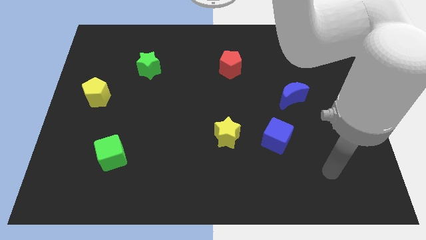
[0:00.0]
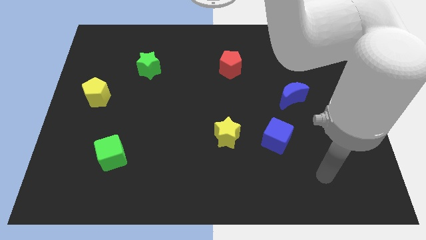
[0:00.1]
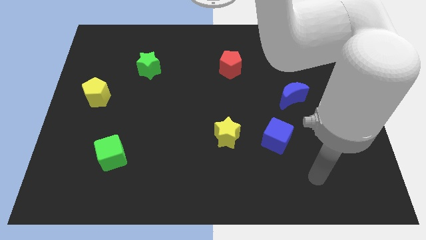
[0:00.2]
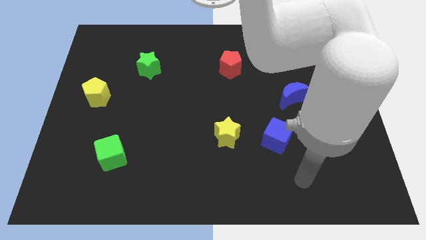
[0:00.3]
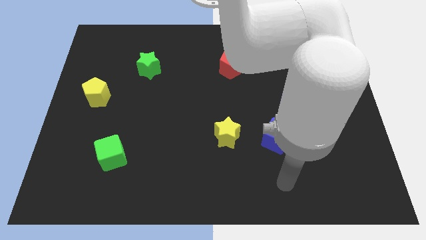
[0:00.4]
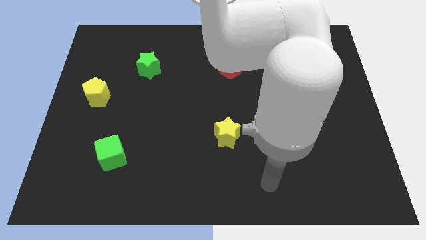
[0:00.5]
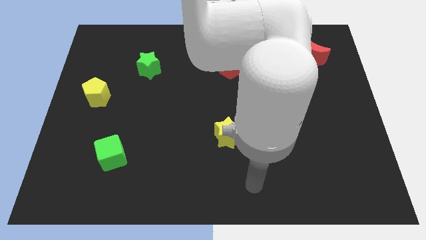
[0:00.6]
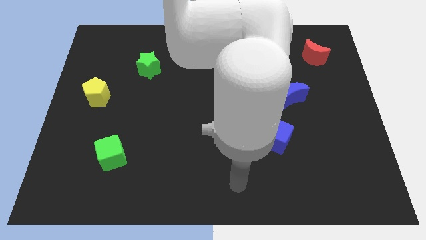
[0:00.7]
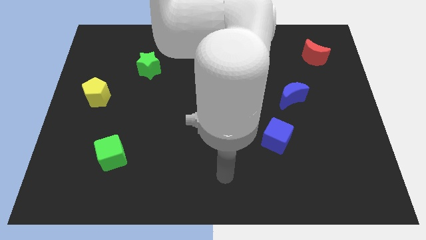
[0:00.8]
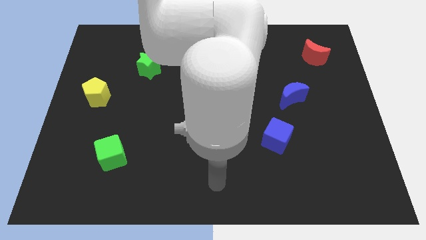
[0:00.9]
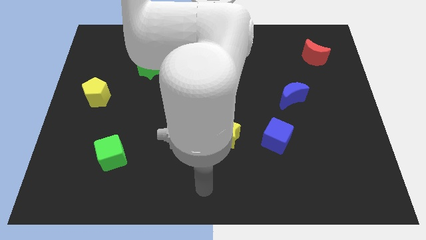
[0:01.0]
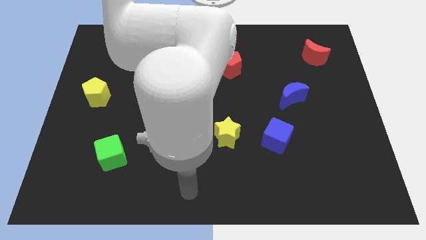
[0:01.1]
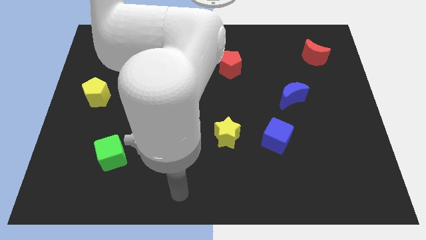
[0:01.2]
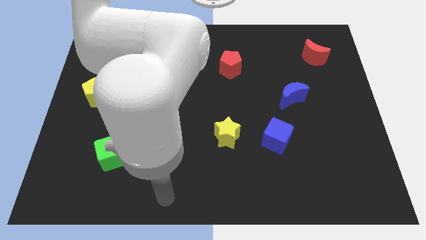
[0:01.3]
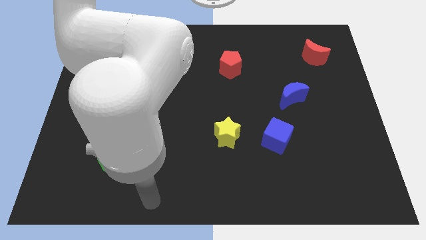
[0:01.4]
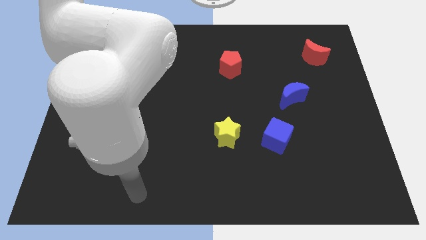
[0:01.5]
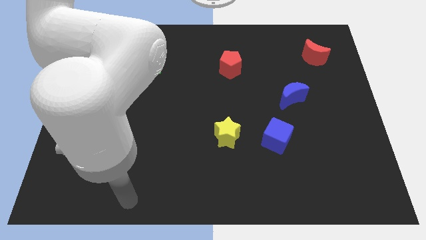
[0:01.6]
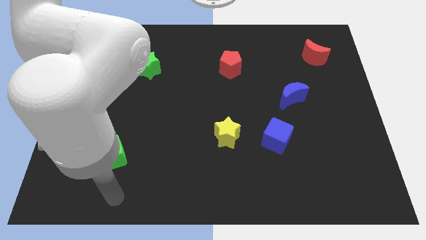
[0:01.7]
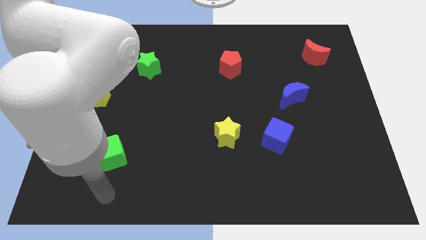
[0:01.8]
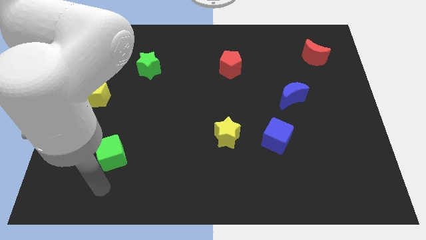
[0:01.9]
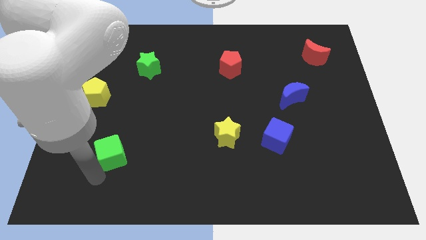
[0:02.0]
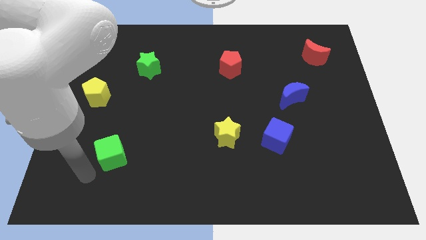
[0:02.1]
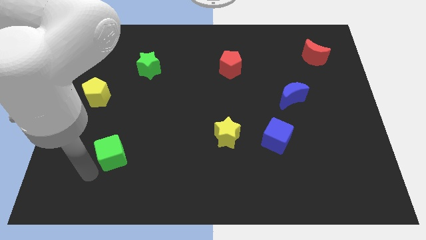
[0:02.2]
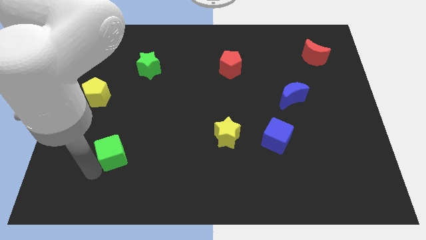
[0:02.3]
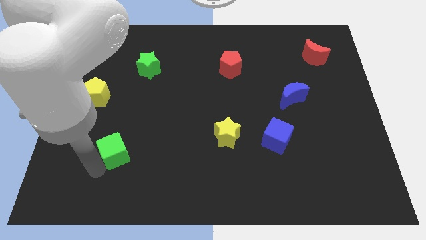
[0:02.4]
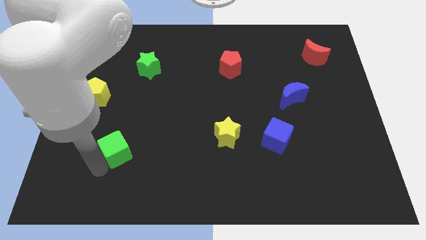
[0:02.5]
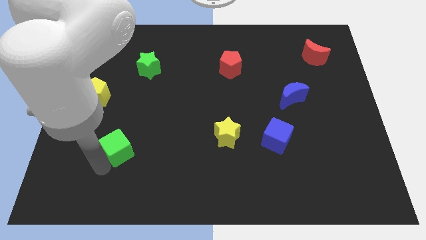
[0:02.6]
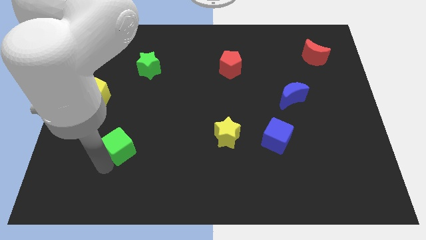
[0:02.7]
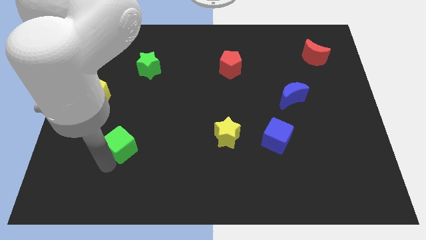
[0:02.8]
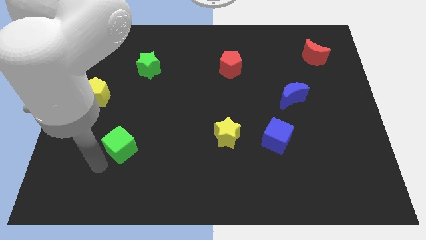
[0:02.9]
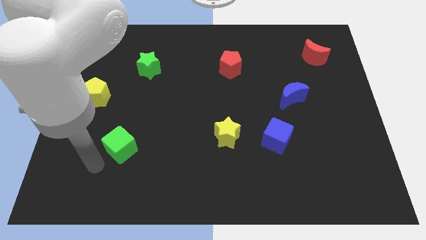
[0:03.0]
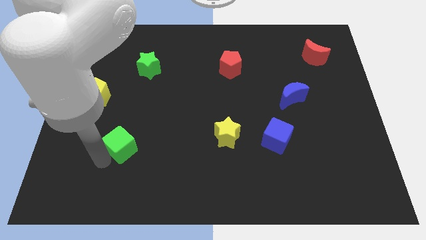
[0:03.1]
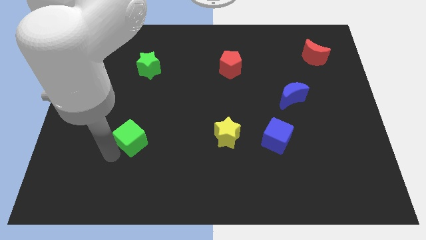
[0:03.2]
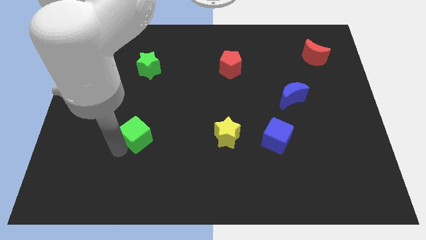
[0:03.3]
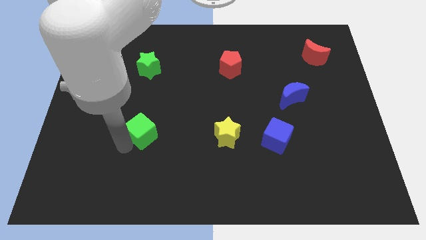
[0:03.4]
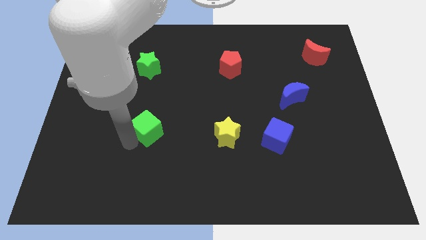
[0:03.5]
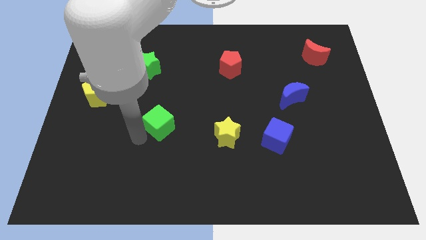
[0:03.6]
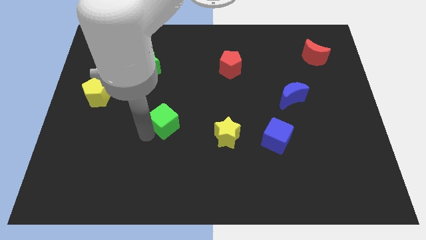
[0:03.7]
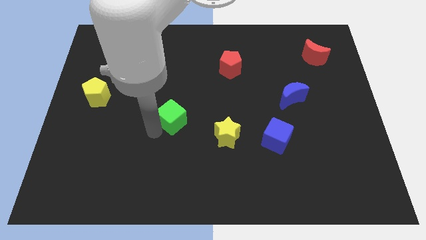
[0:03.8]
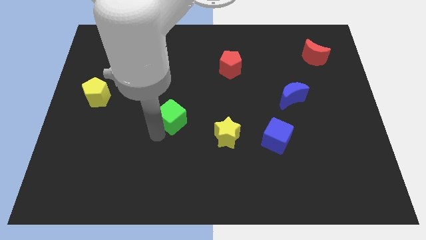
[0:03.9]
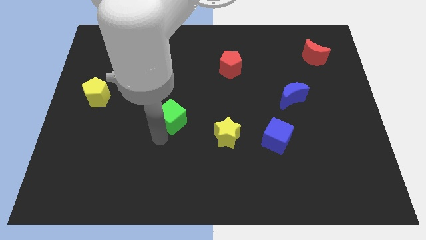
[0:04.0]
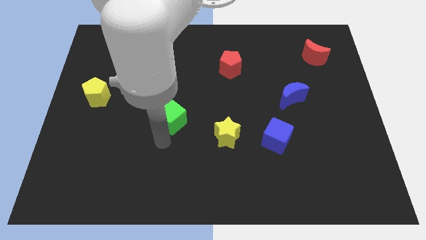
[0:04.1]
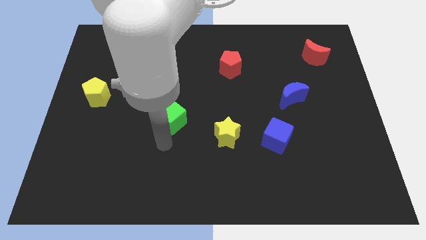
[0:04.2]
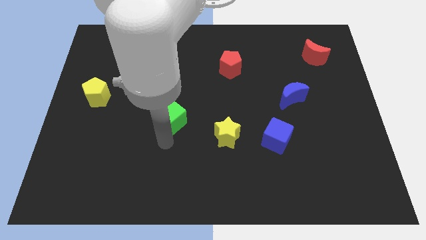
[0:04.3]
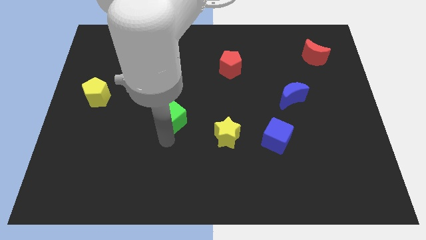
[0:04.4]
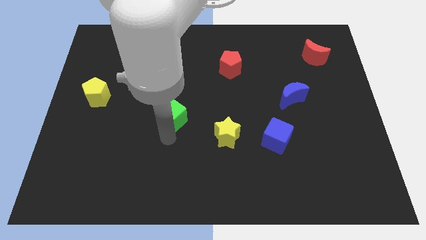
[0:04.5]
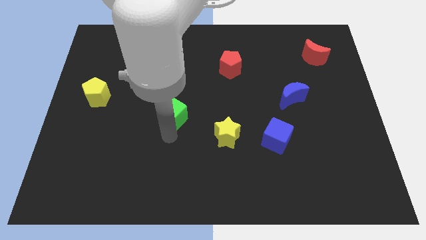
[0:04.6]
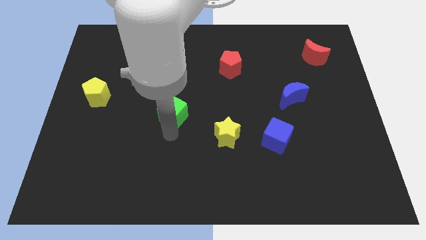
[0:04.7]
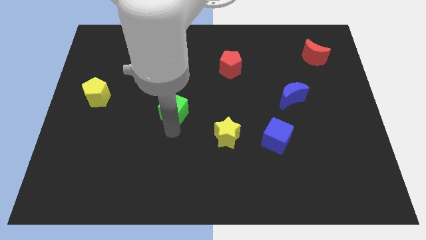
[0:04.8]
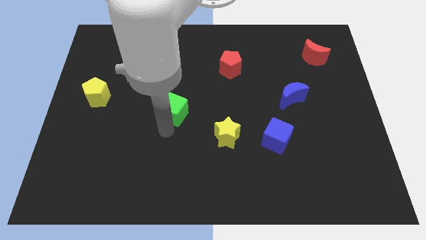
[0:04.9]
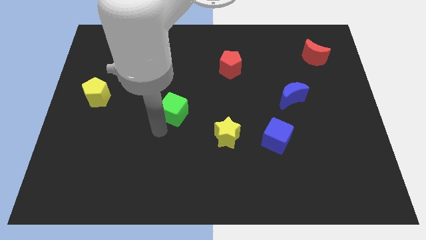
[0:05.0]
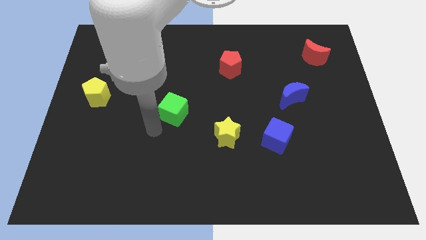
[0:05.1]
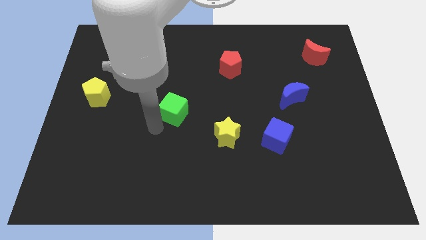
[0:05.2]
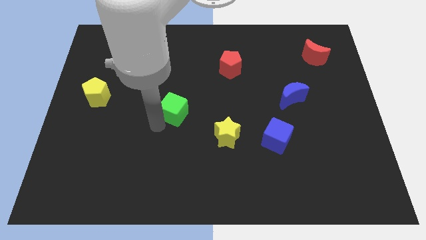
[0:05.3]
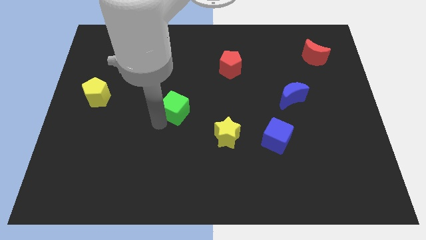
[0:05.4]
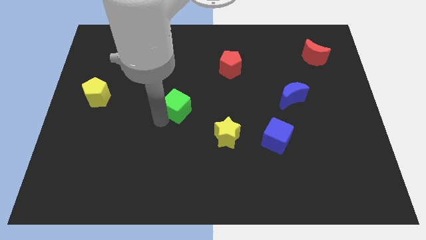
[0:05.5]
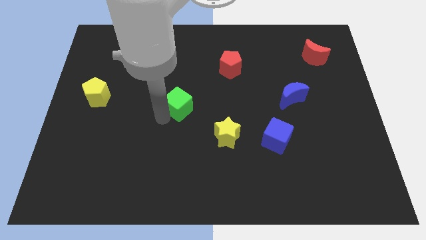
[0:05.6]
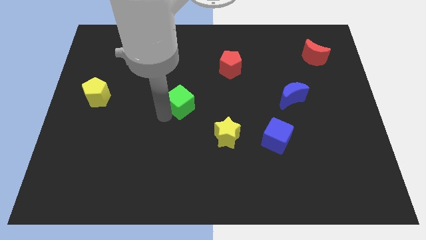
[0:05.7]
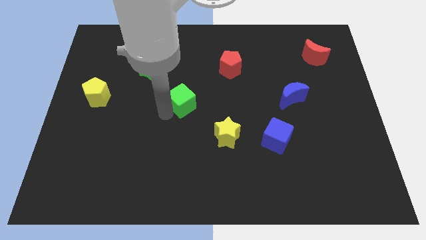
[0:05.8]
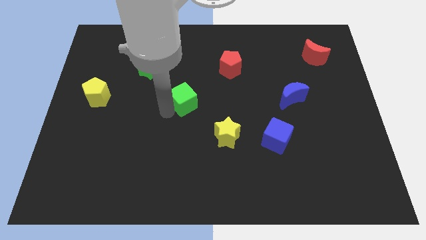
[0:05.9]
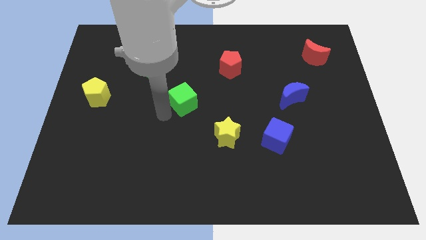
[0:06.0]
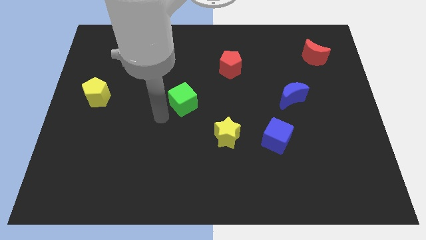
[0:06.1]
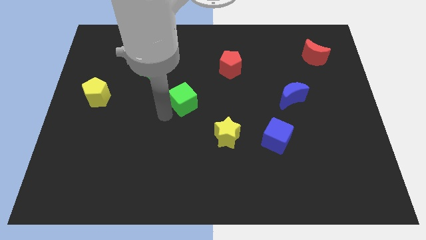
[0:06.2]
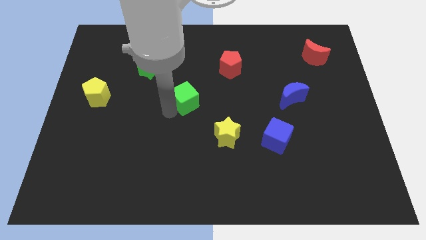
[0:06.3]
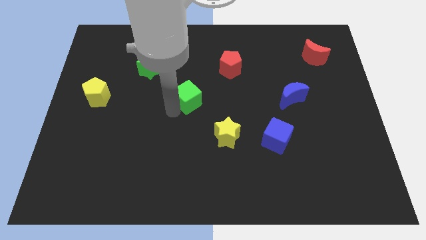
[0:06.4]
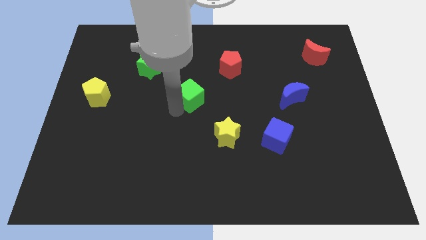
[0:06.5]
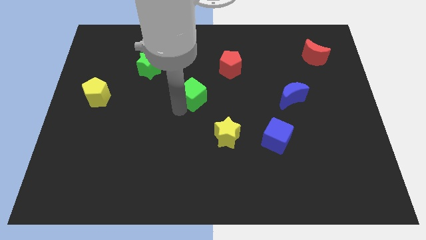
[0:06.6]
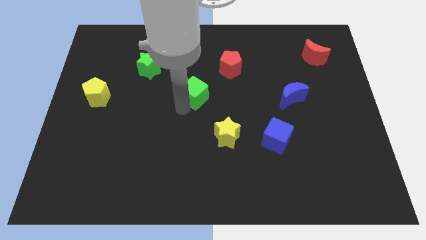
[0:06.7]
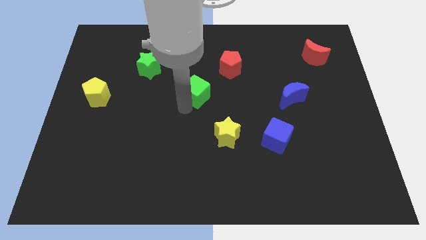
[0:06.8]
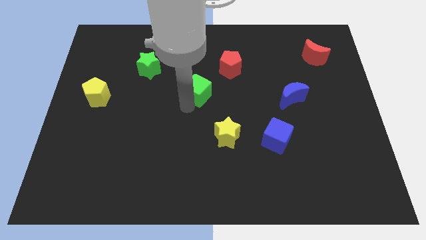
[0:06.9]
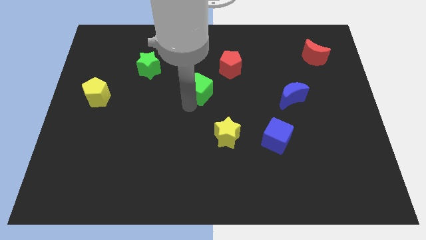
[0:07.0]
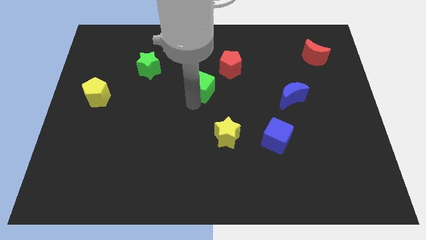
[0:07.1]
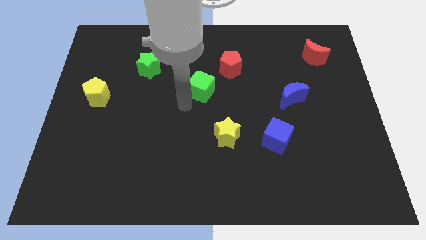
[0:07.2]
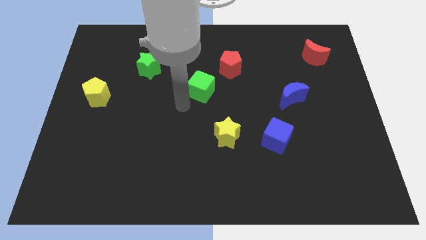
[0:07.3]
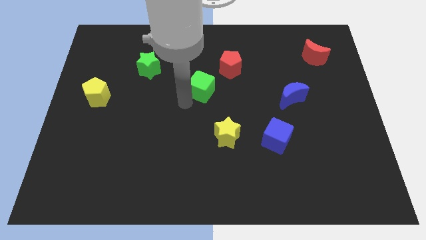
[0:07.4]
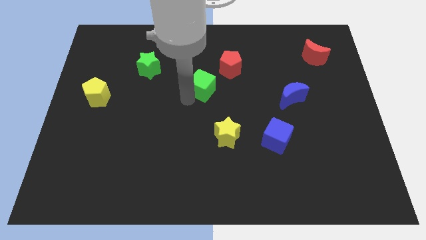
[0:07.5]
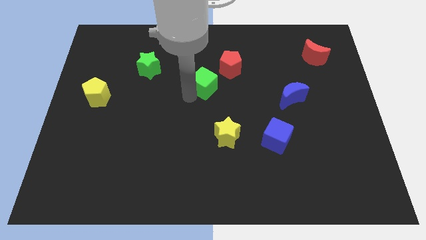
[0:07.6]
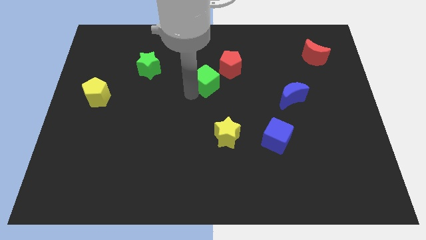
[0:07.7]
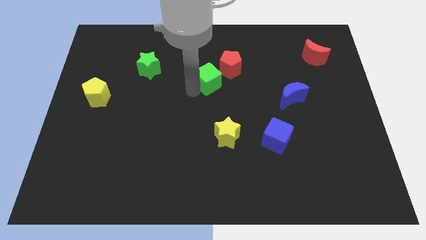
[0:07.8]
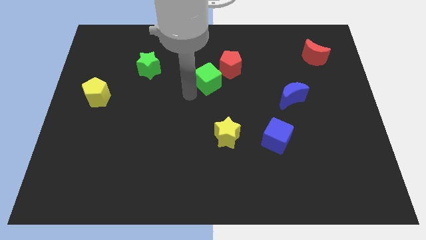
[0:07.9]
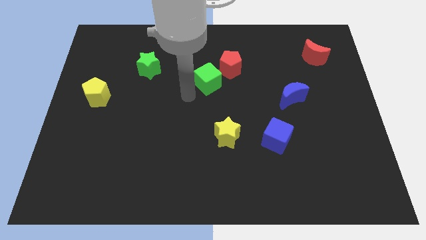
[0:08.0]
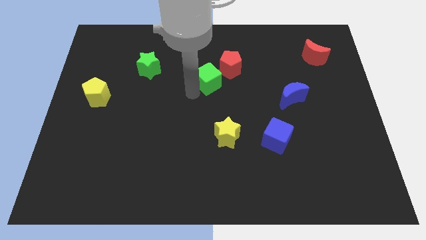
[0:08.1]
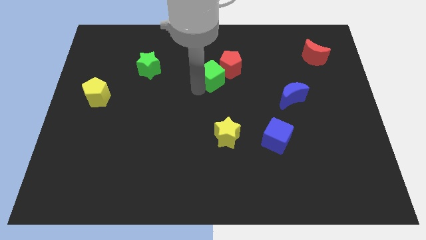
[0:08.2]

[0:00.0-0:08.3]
put the green cube towards the red pentagon
